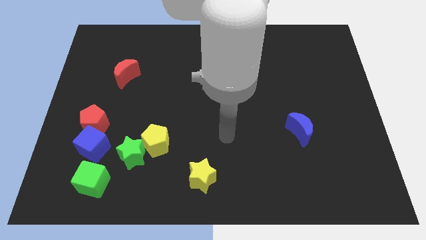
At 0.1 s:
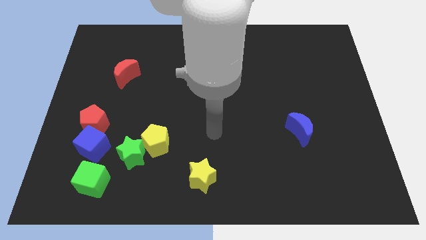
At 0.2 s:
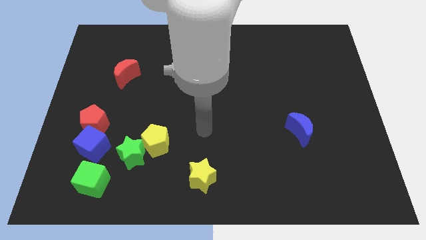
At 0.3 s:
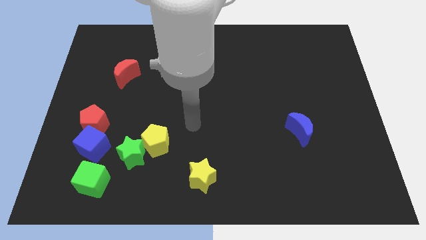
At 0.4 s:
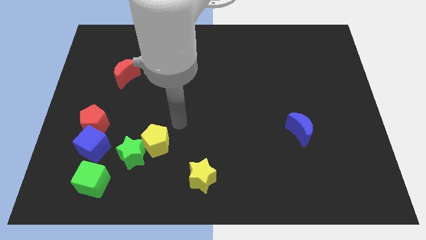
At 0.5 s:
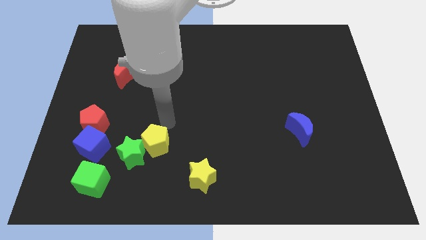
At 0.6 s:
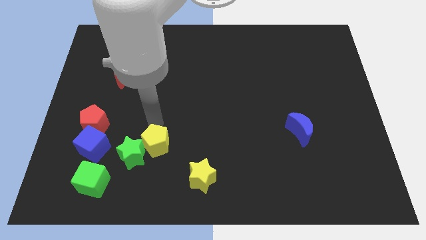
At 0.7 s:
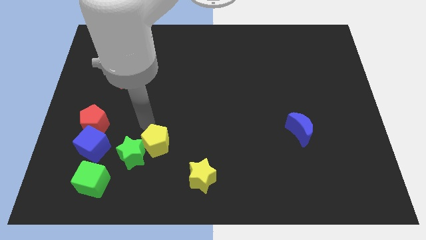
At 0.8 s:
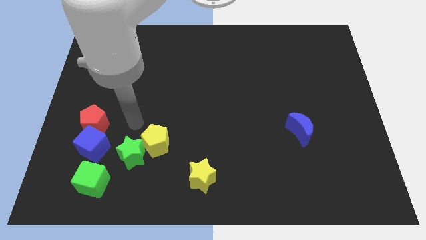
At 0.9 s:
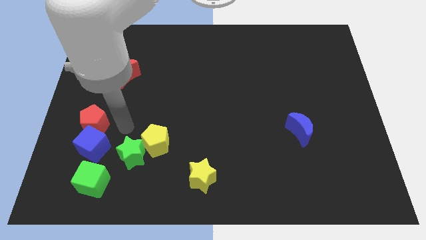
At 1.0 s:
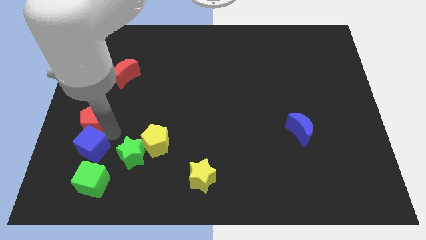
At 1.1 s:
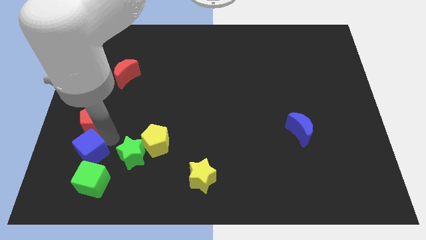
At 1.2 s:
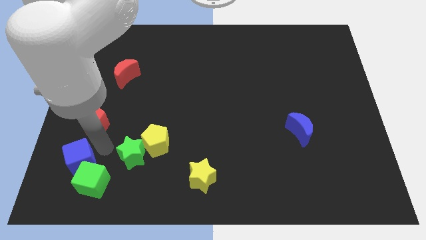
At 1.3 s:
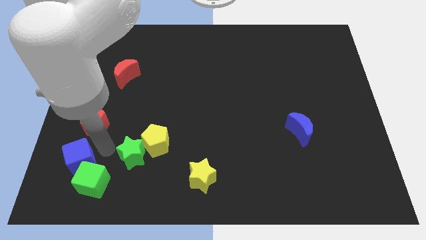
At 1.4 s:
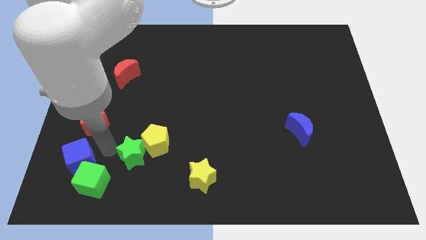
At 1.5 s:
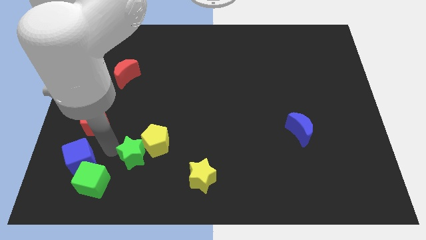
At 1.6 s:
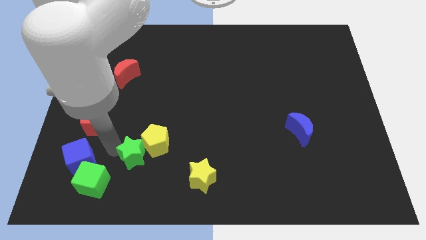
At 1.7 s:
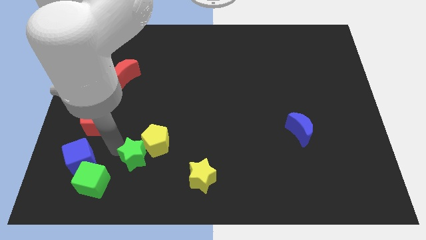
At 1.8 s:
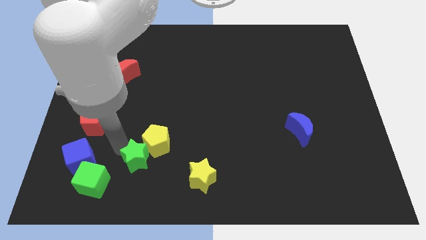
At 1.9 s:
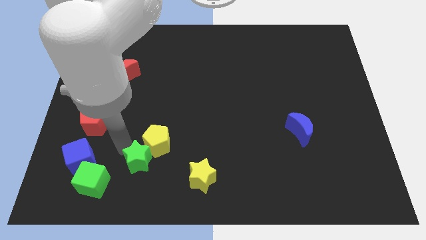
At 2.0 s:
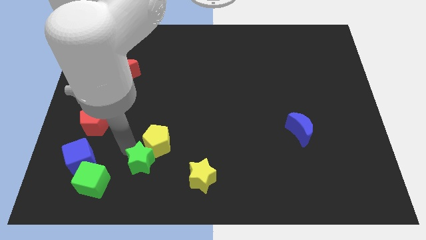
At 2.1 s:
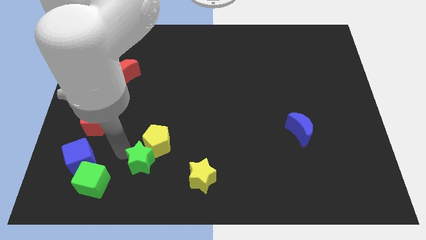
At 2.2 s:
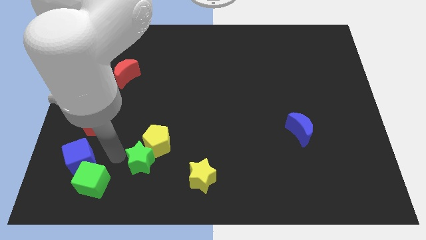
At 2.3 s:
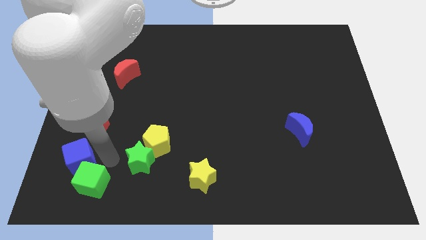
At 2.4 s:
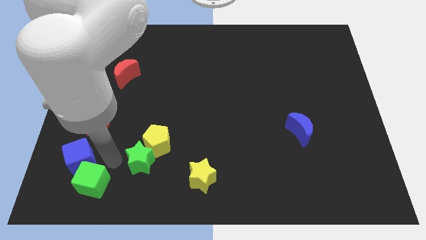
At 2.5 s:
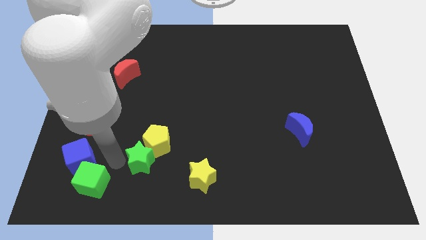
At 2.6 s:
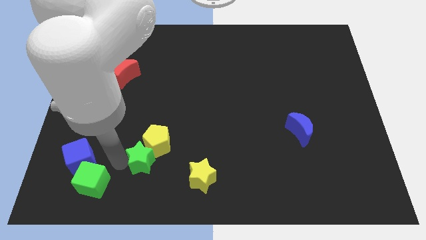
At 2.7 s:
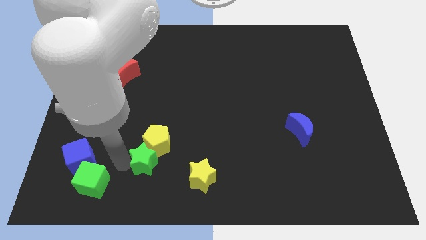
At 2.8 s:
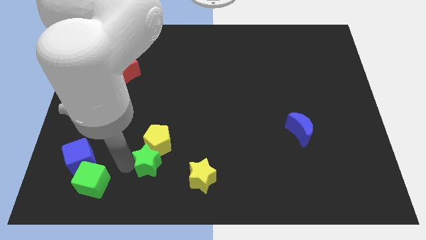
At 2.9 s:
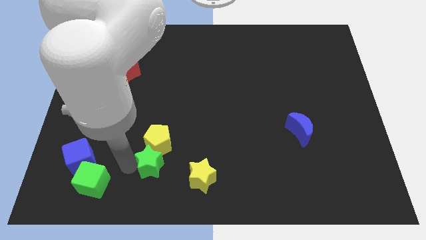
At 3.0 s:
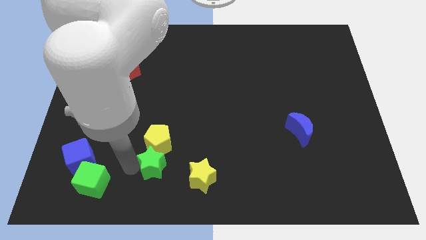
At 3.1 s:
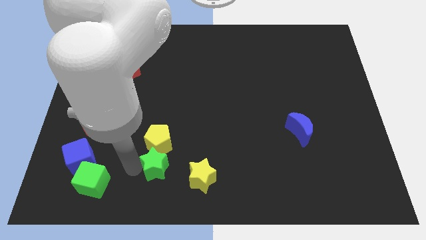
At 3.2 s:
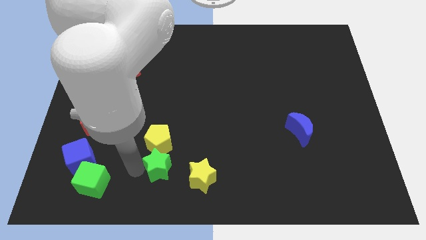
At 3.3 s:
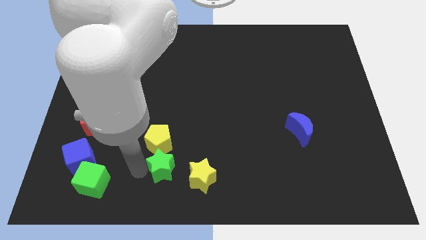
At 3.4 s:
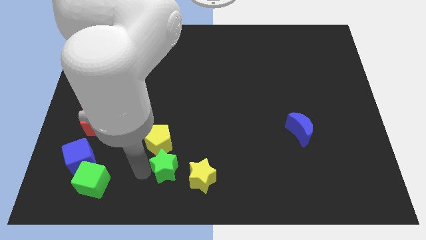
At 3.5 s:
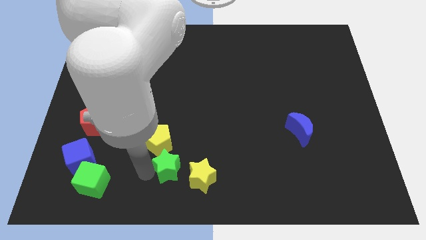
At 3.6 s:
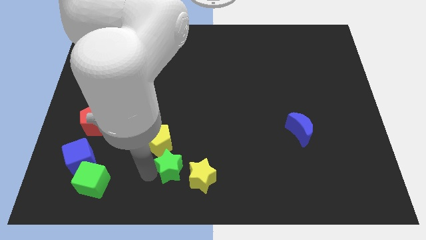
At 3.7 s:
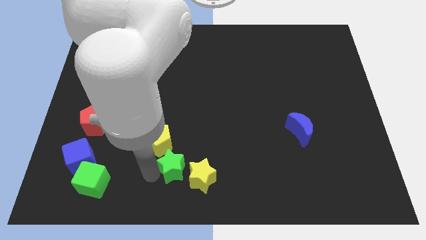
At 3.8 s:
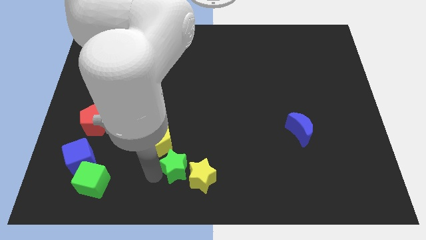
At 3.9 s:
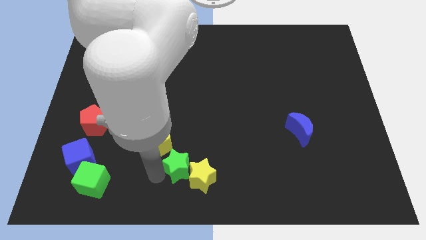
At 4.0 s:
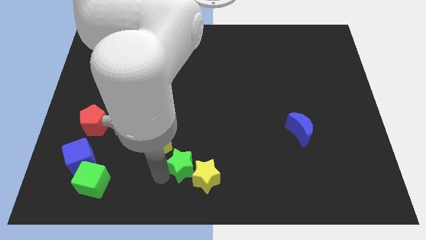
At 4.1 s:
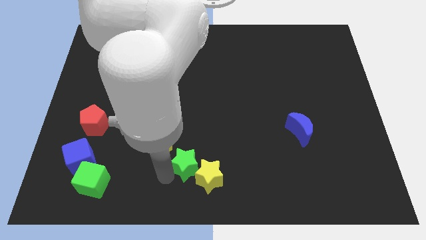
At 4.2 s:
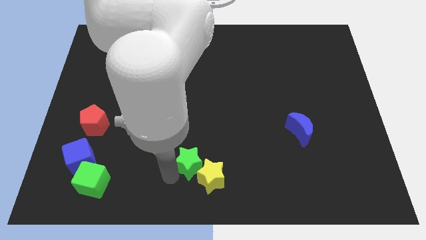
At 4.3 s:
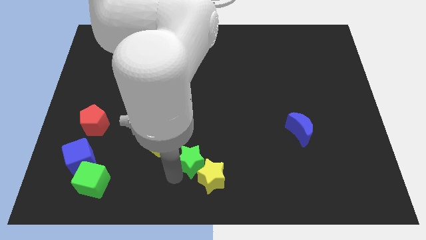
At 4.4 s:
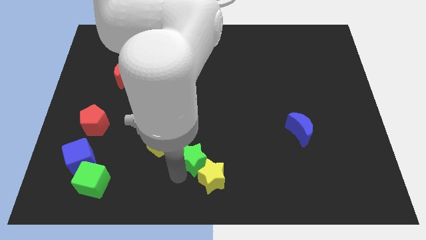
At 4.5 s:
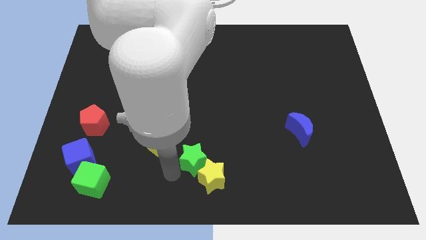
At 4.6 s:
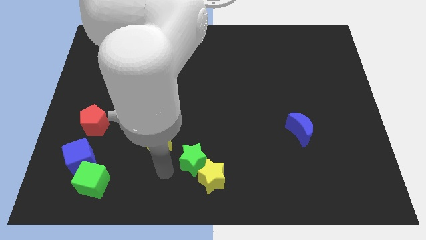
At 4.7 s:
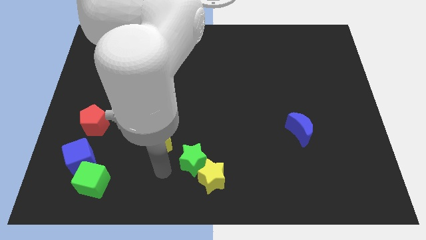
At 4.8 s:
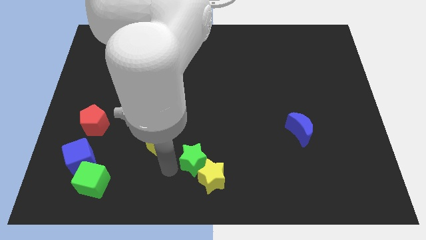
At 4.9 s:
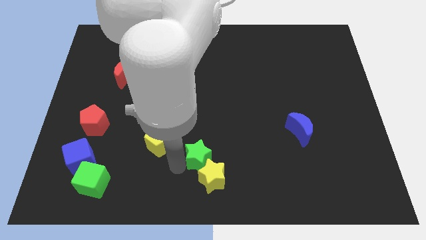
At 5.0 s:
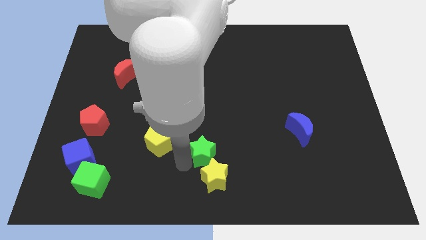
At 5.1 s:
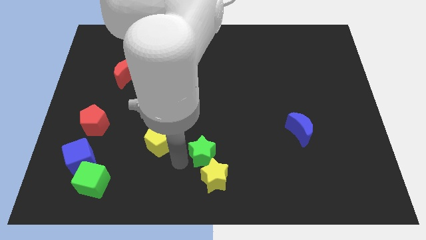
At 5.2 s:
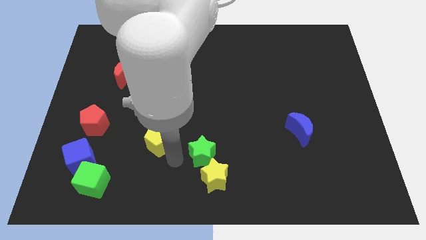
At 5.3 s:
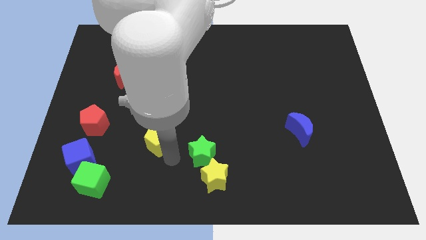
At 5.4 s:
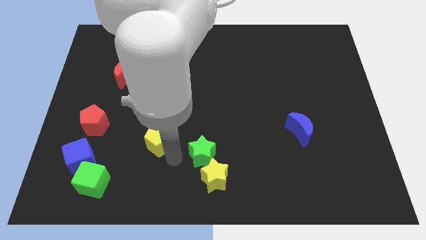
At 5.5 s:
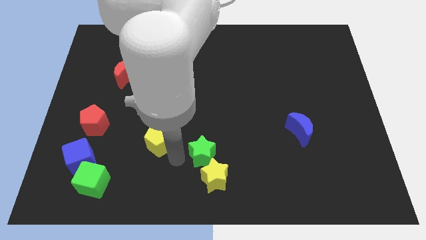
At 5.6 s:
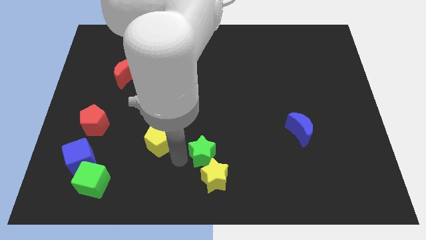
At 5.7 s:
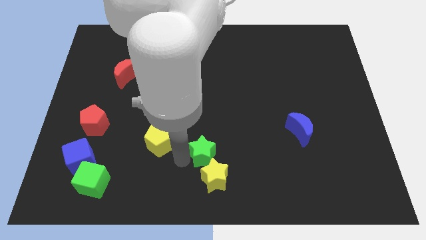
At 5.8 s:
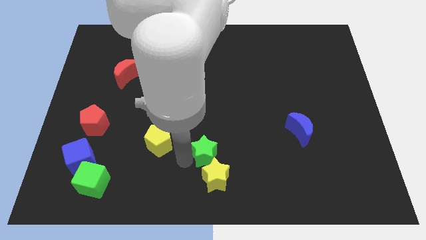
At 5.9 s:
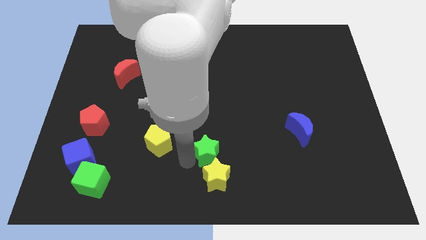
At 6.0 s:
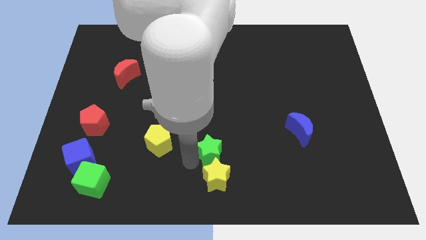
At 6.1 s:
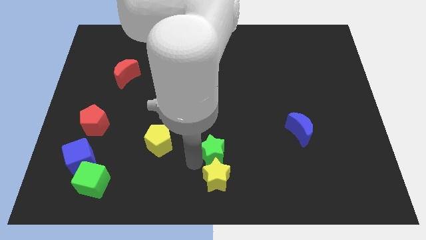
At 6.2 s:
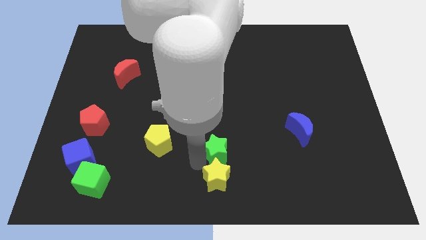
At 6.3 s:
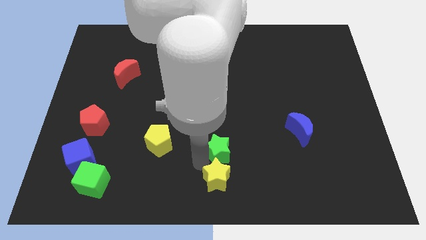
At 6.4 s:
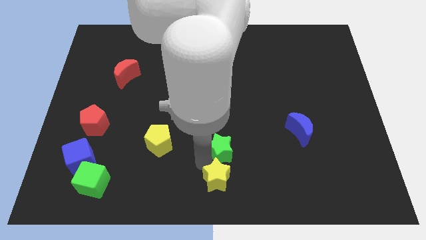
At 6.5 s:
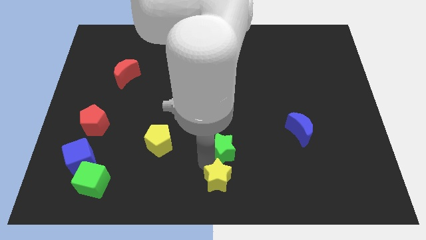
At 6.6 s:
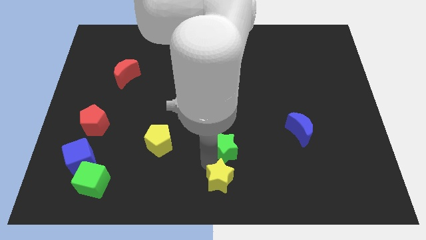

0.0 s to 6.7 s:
slide the green star right

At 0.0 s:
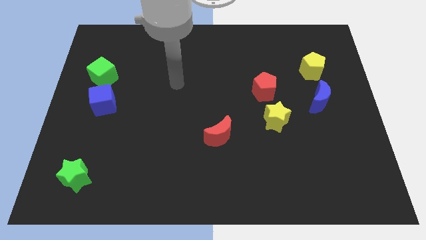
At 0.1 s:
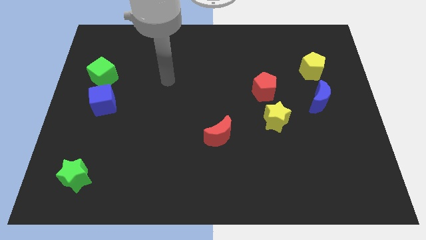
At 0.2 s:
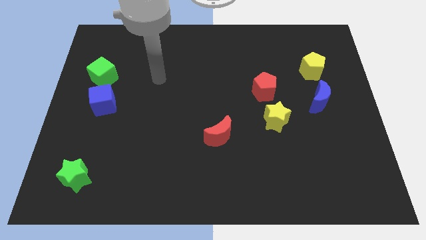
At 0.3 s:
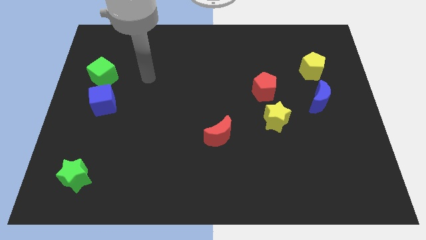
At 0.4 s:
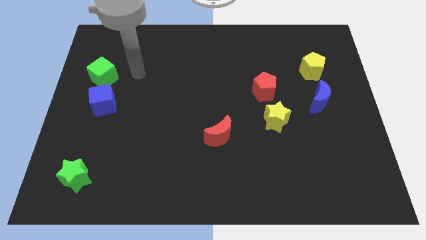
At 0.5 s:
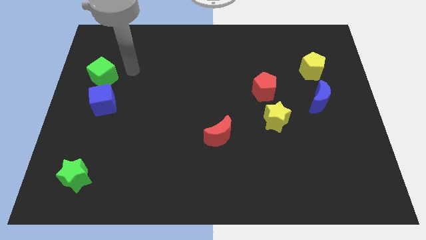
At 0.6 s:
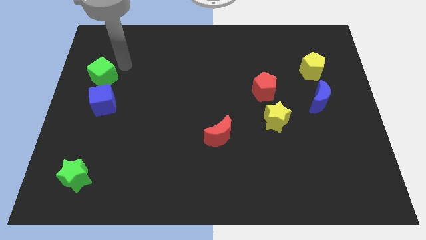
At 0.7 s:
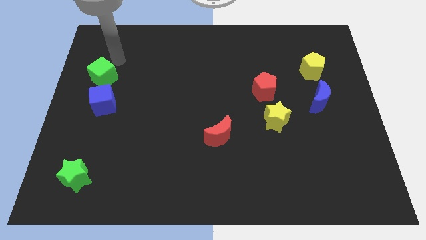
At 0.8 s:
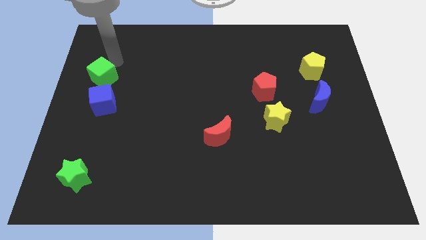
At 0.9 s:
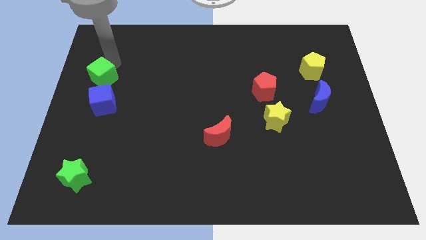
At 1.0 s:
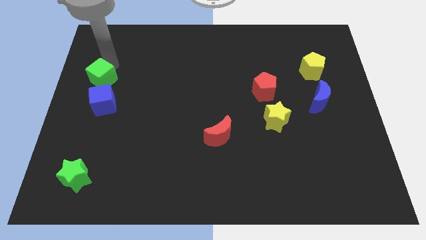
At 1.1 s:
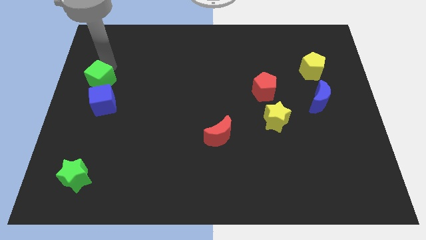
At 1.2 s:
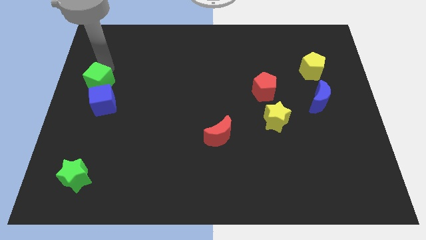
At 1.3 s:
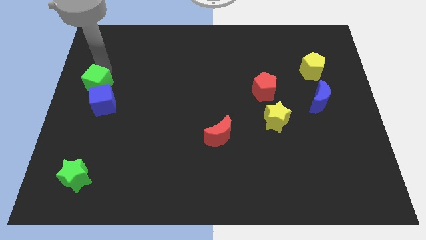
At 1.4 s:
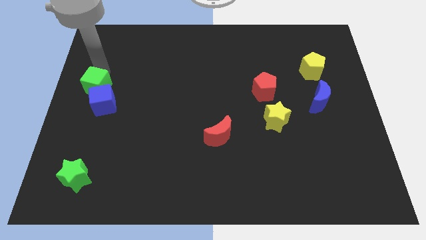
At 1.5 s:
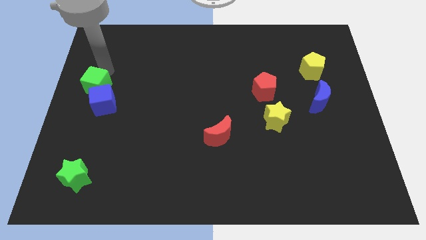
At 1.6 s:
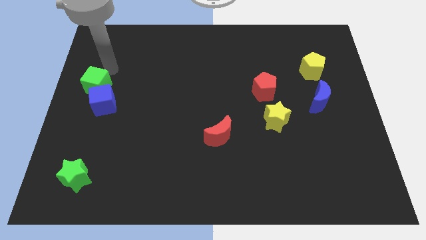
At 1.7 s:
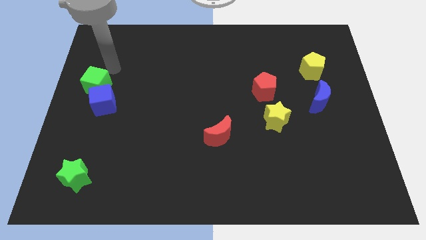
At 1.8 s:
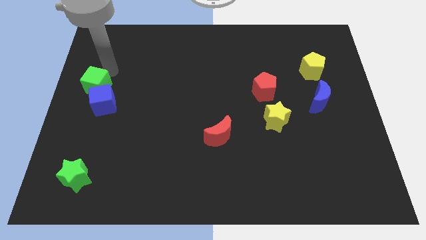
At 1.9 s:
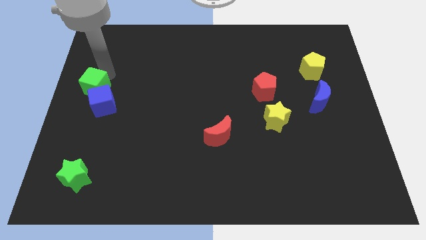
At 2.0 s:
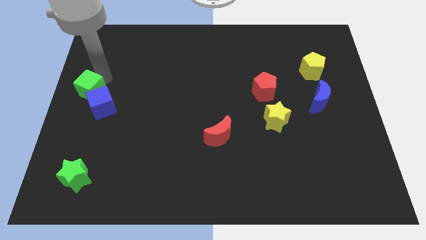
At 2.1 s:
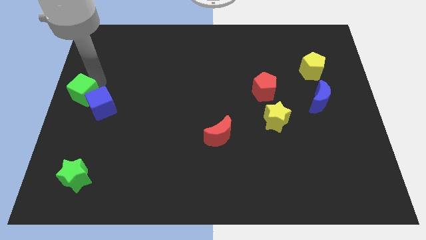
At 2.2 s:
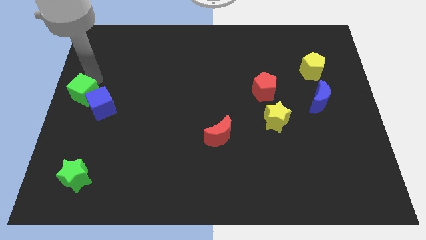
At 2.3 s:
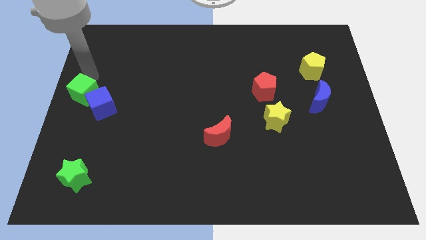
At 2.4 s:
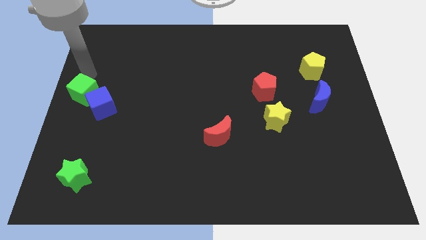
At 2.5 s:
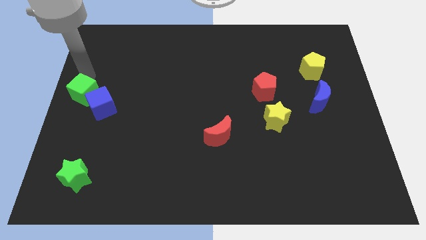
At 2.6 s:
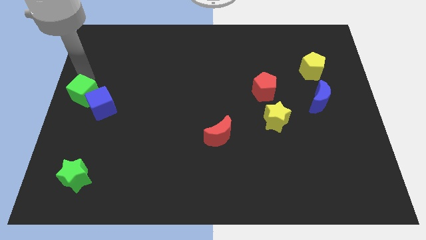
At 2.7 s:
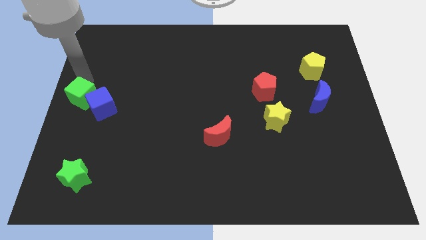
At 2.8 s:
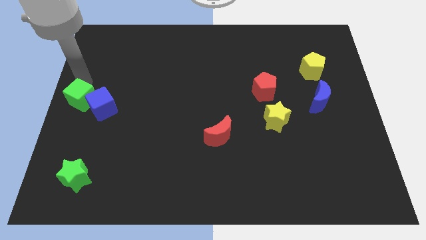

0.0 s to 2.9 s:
slide the green cube down a little
